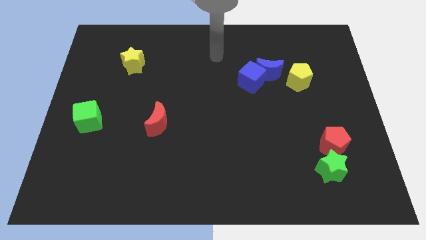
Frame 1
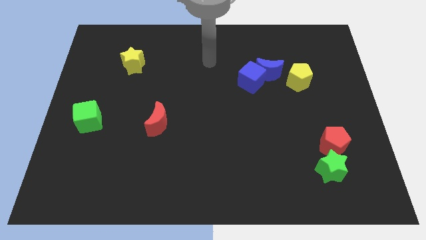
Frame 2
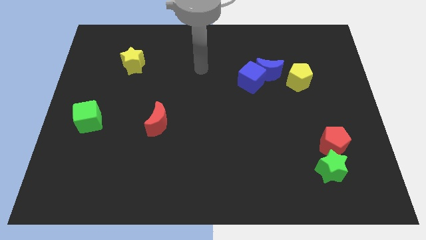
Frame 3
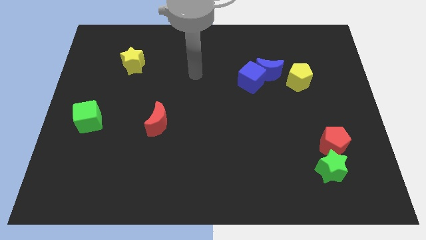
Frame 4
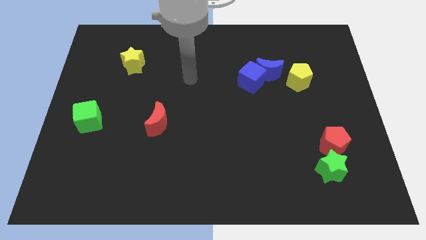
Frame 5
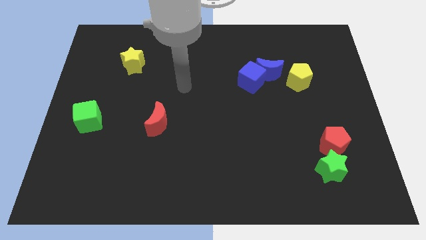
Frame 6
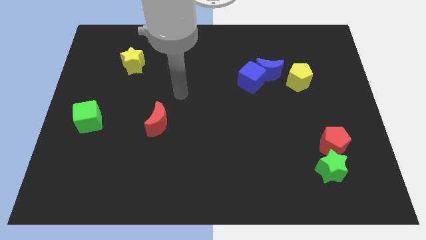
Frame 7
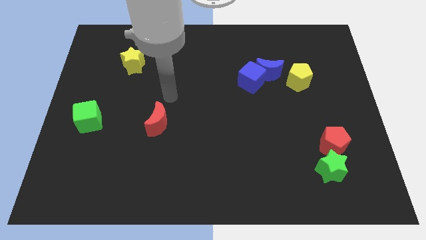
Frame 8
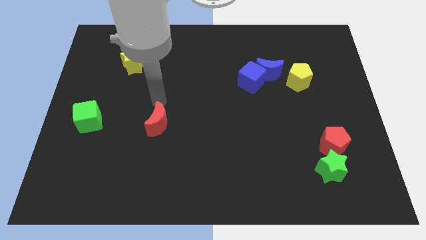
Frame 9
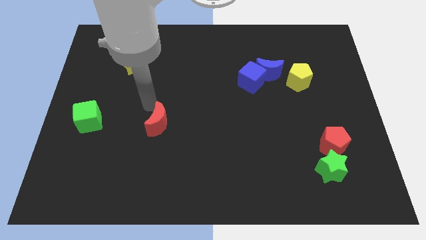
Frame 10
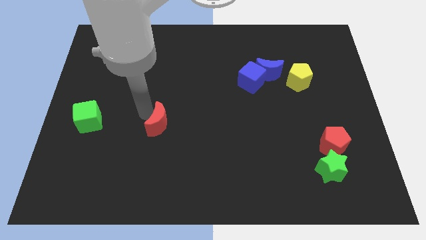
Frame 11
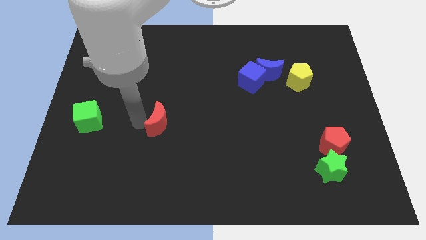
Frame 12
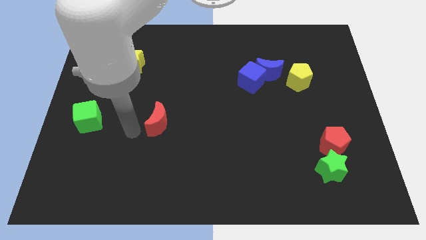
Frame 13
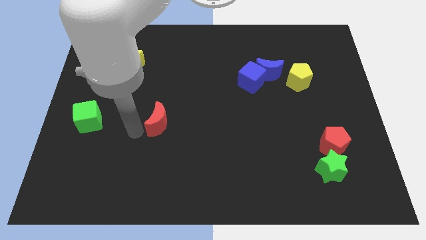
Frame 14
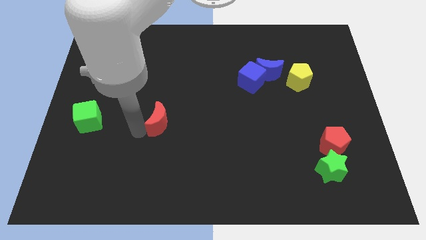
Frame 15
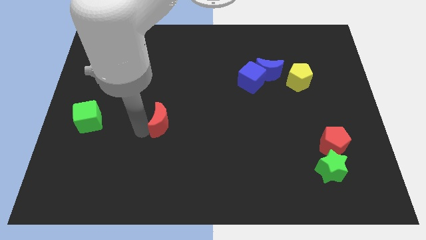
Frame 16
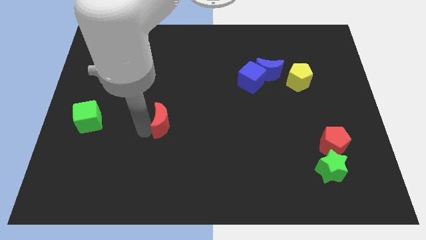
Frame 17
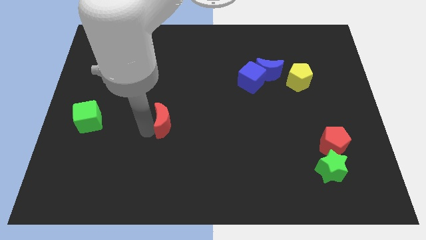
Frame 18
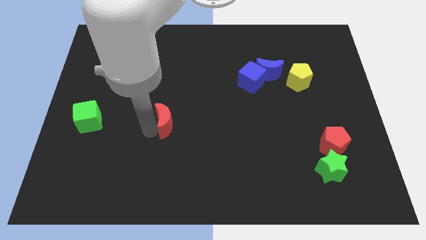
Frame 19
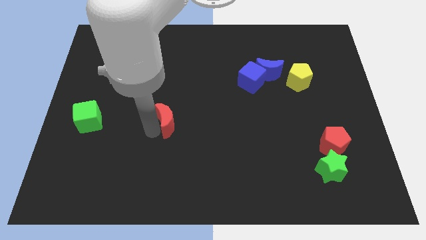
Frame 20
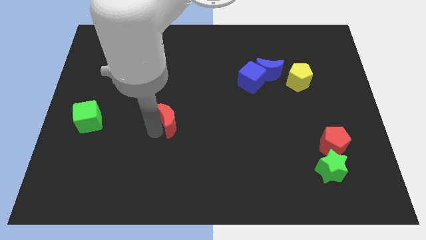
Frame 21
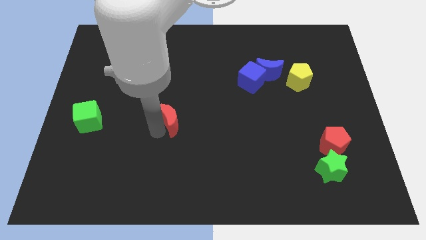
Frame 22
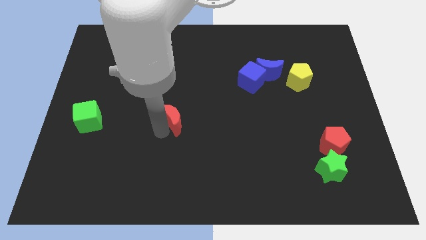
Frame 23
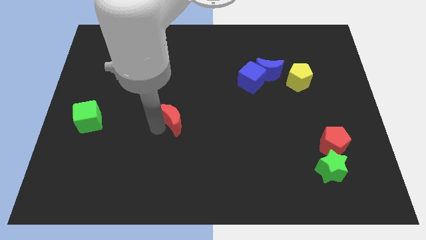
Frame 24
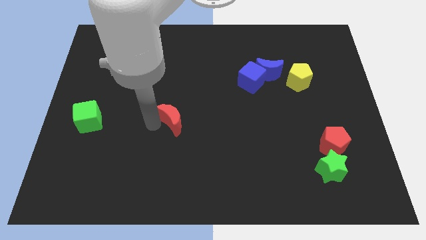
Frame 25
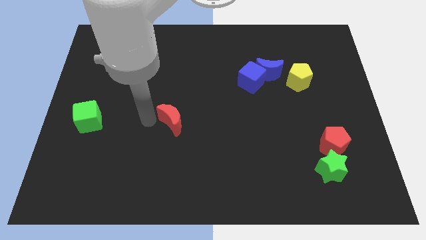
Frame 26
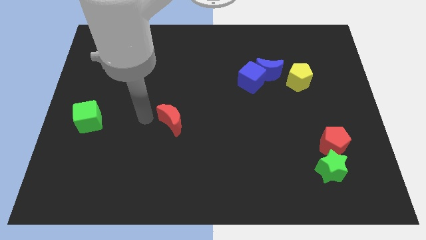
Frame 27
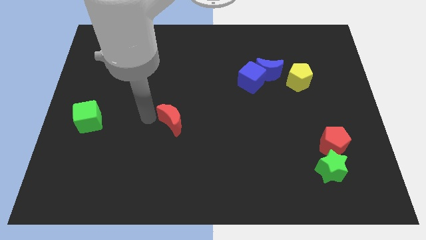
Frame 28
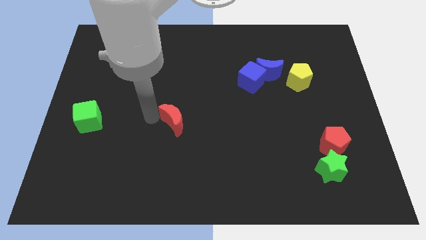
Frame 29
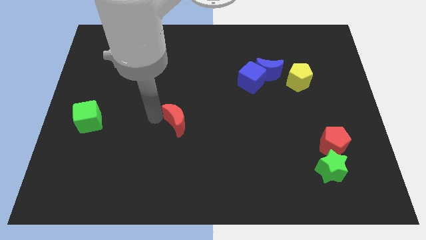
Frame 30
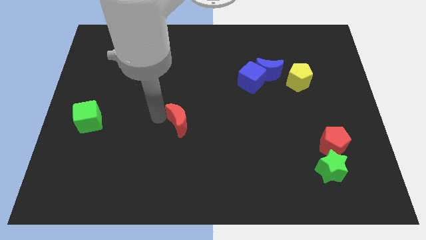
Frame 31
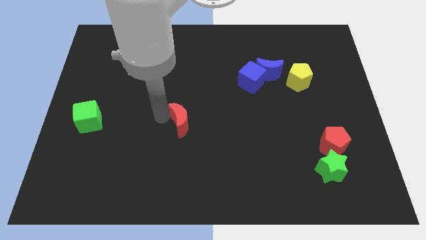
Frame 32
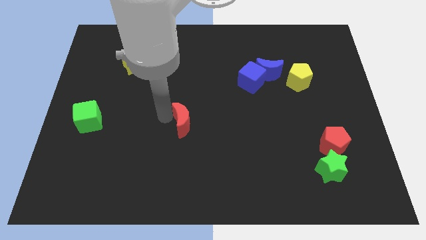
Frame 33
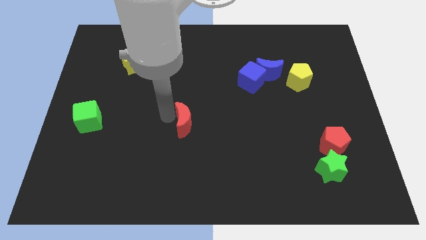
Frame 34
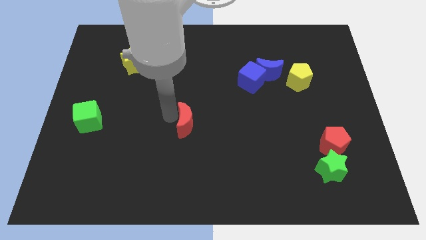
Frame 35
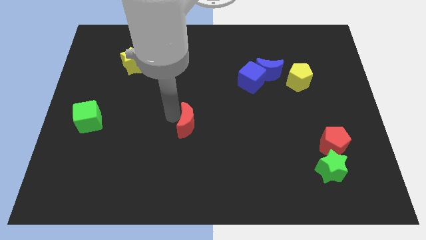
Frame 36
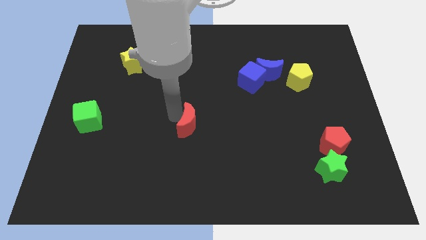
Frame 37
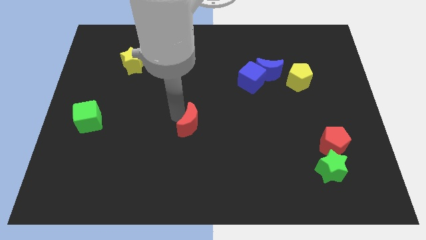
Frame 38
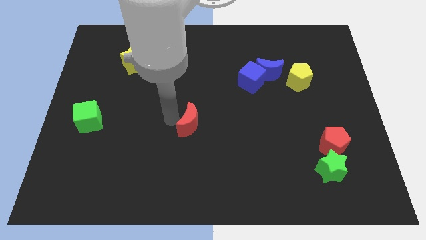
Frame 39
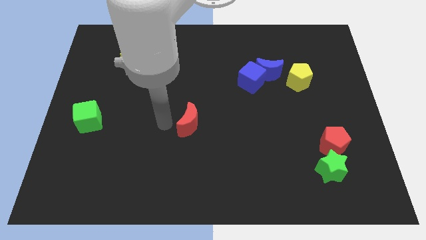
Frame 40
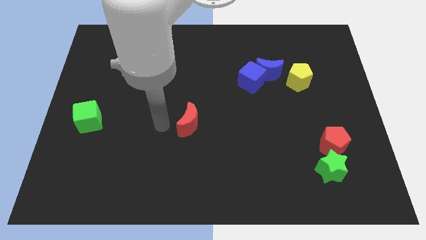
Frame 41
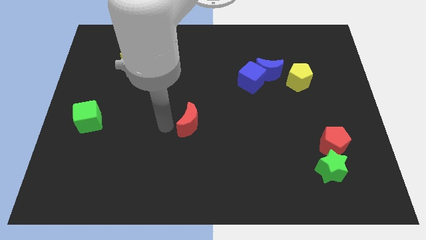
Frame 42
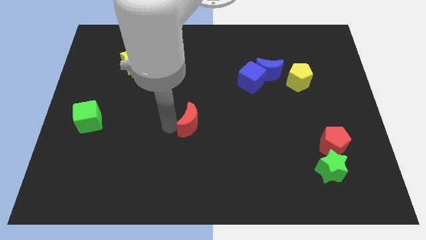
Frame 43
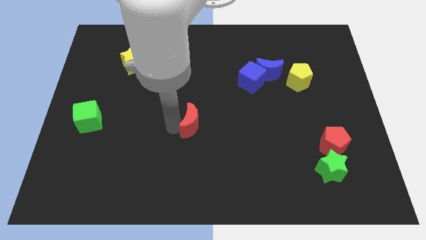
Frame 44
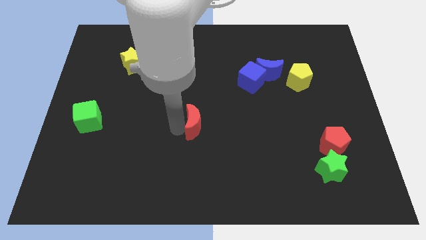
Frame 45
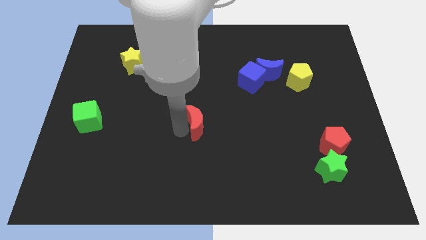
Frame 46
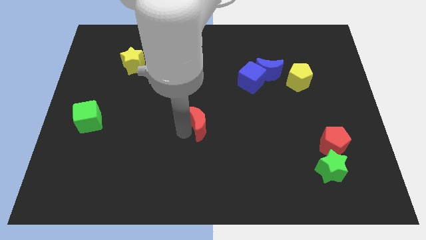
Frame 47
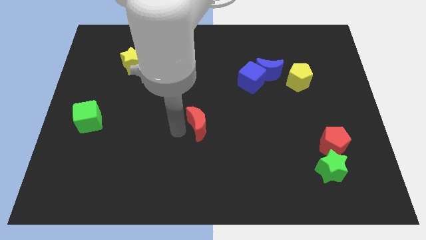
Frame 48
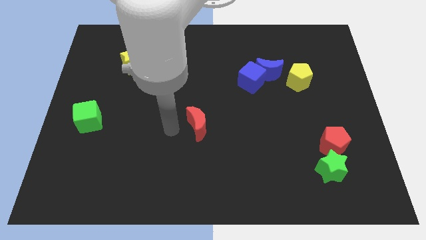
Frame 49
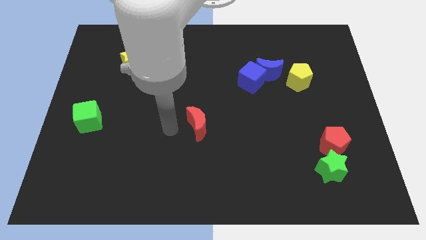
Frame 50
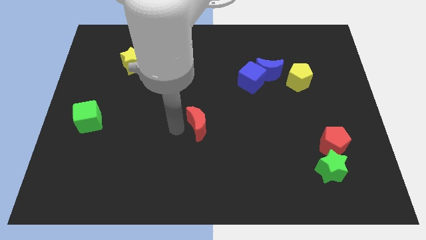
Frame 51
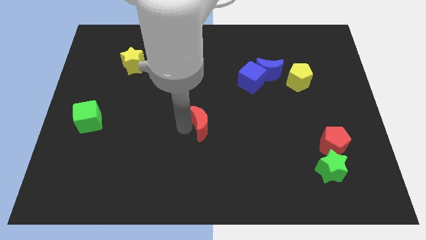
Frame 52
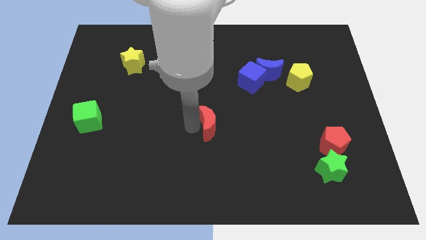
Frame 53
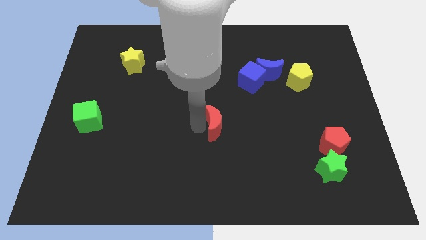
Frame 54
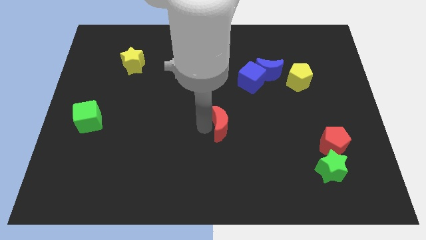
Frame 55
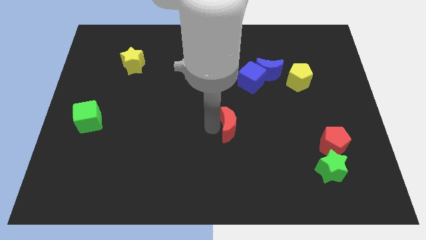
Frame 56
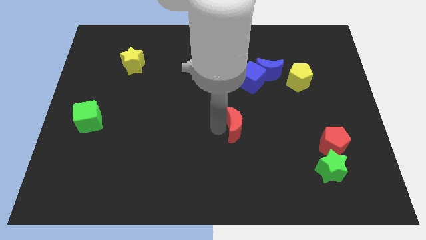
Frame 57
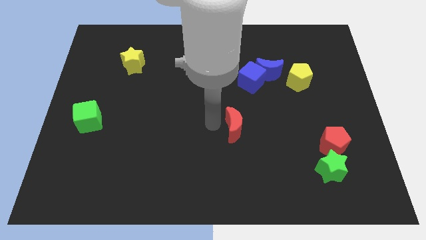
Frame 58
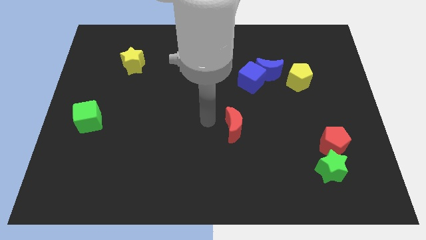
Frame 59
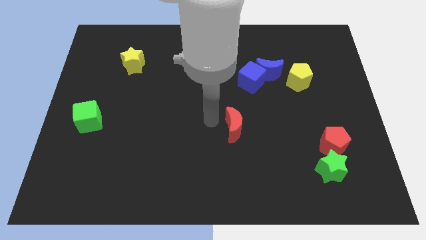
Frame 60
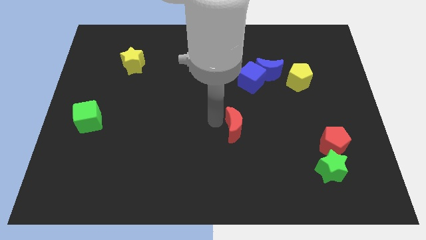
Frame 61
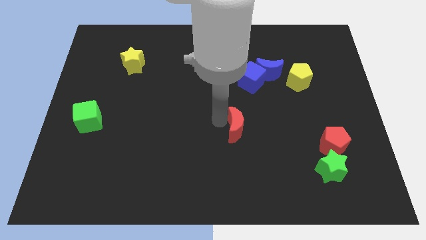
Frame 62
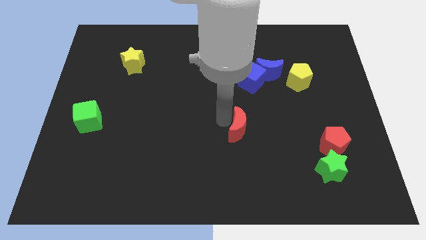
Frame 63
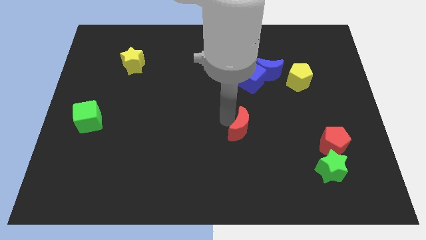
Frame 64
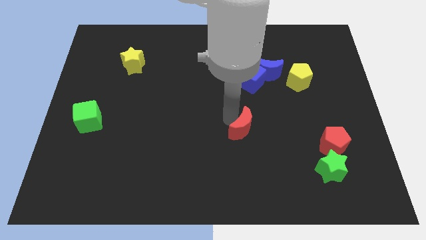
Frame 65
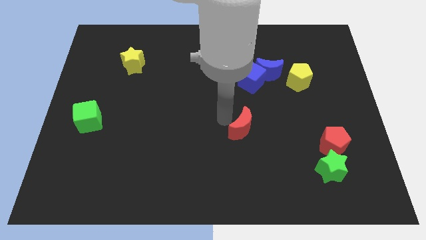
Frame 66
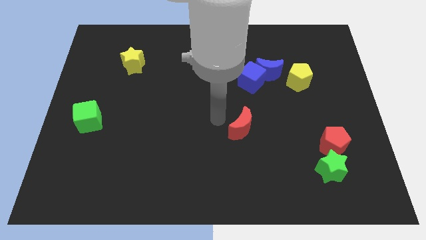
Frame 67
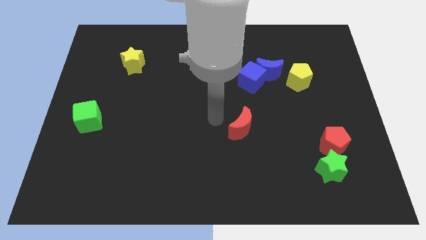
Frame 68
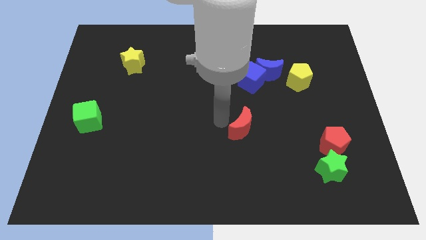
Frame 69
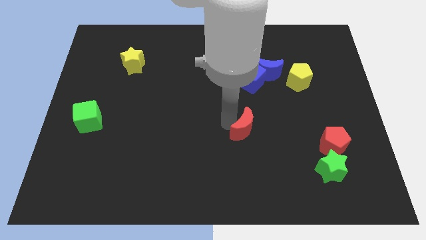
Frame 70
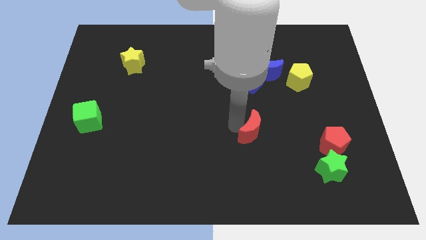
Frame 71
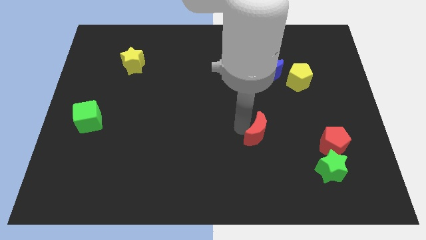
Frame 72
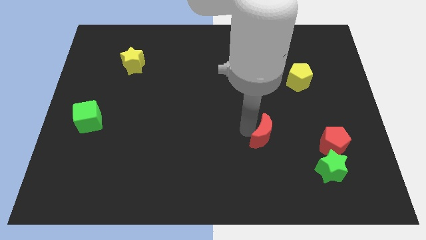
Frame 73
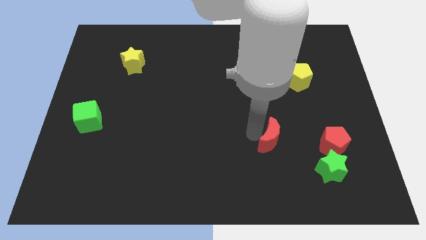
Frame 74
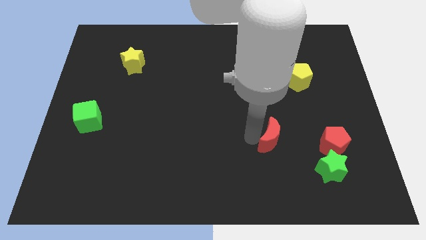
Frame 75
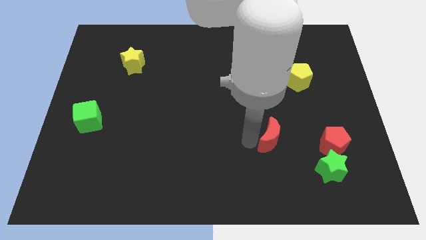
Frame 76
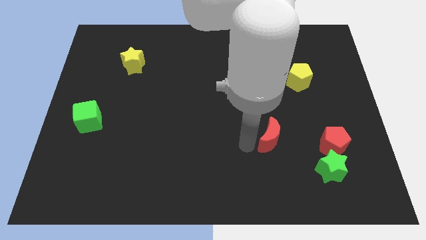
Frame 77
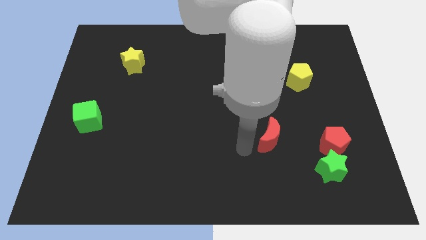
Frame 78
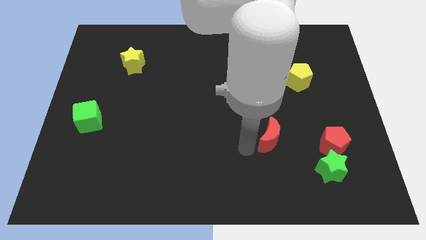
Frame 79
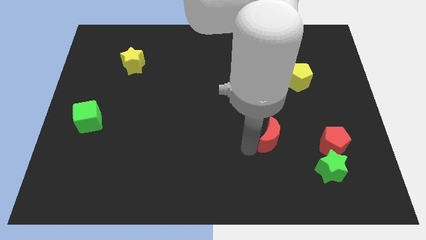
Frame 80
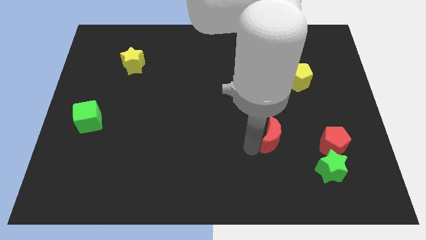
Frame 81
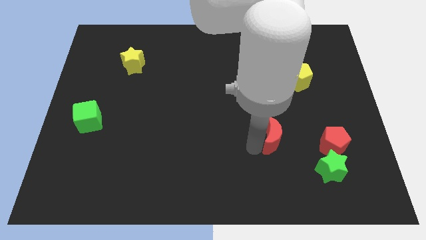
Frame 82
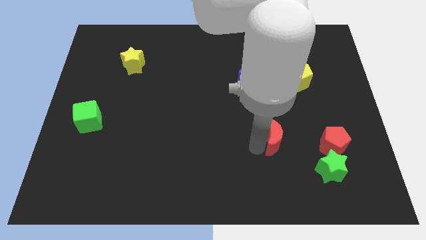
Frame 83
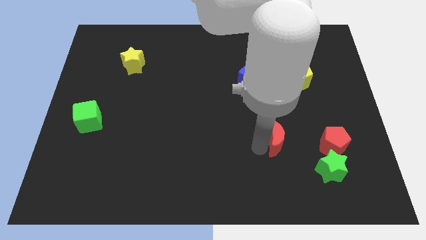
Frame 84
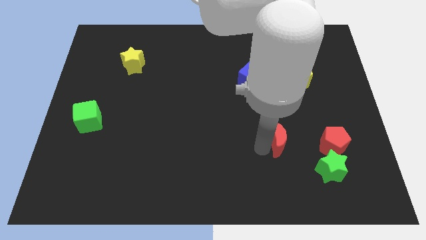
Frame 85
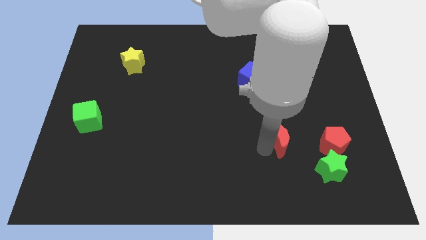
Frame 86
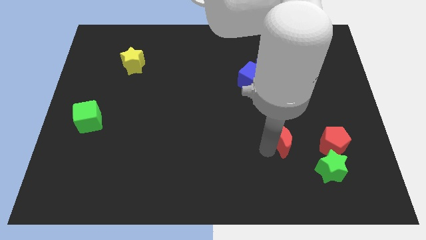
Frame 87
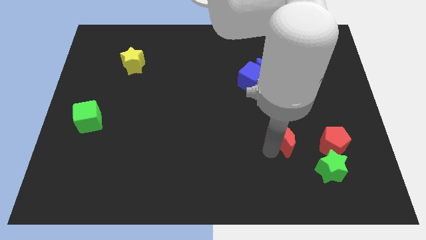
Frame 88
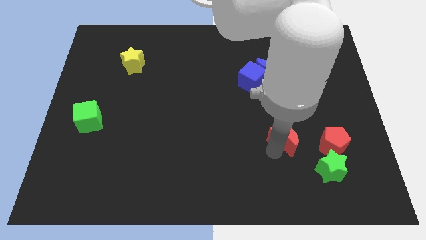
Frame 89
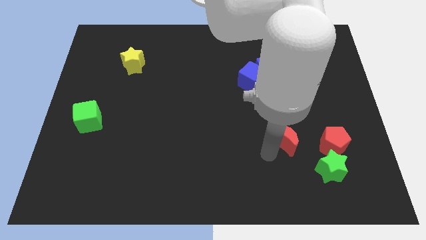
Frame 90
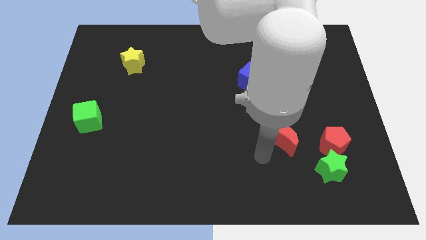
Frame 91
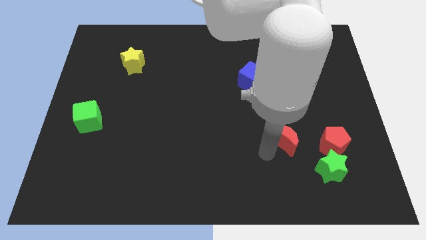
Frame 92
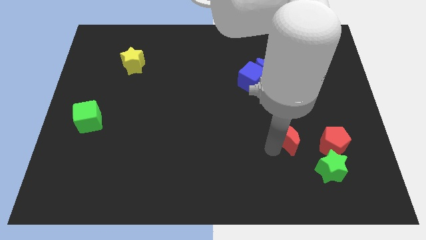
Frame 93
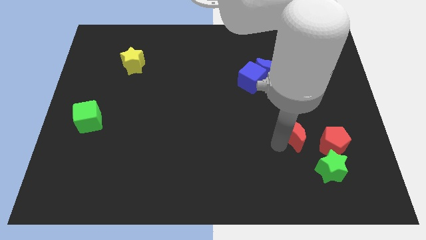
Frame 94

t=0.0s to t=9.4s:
move the red moon diagonally up and to the left of the red pentagon
